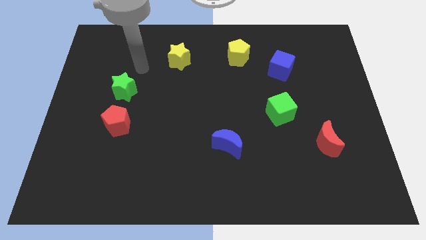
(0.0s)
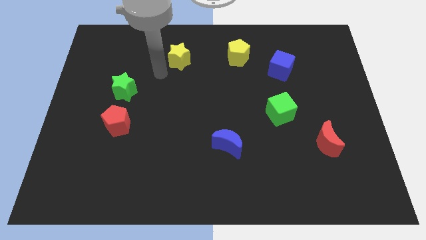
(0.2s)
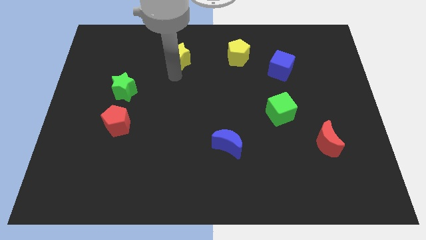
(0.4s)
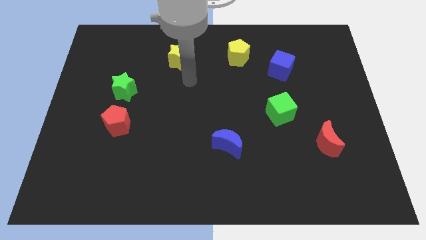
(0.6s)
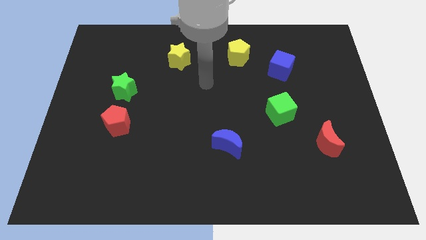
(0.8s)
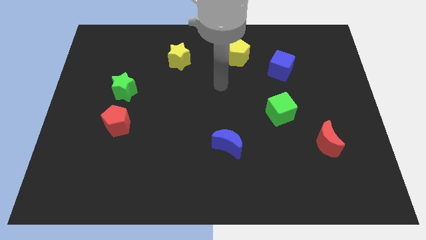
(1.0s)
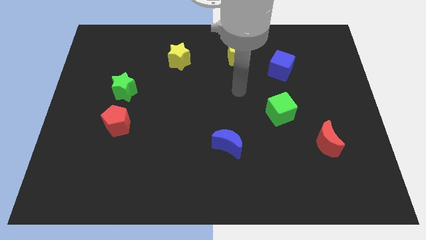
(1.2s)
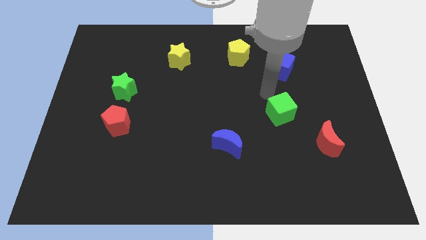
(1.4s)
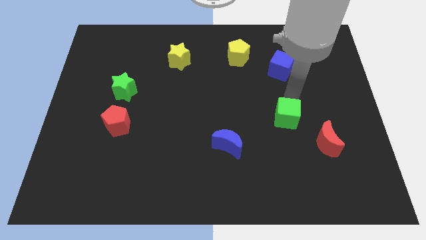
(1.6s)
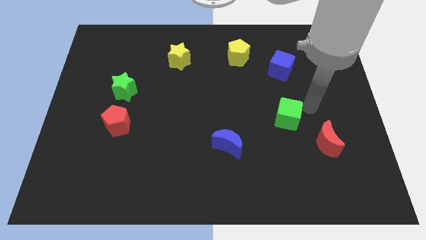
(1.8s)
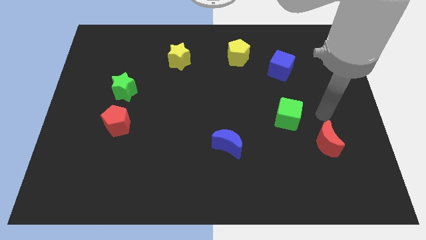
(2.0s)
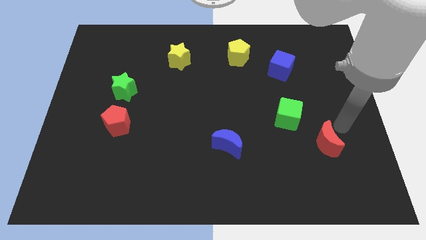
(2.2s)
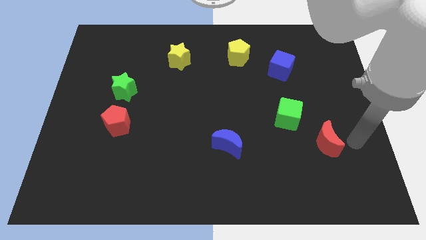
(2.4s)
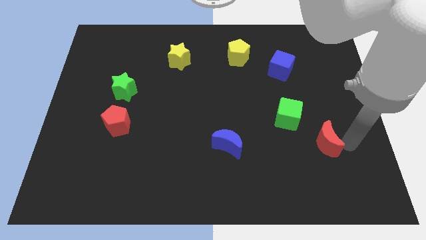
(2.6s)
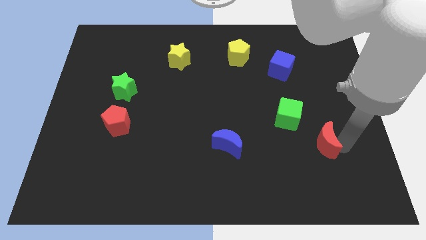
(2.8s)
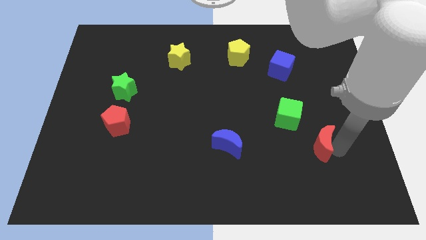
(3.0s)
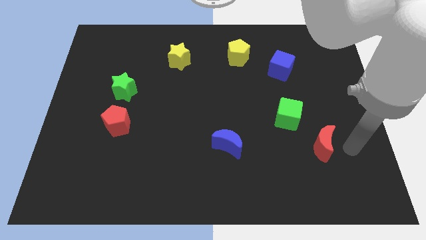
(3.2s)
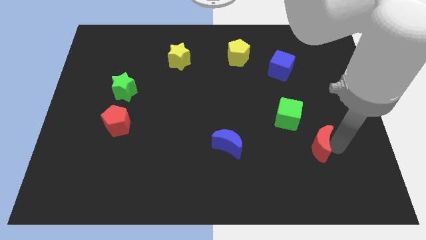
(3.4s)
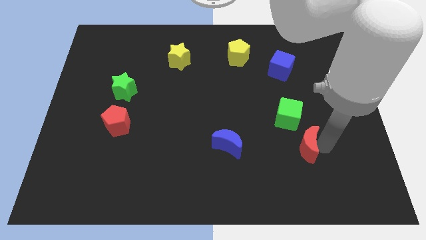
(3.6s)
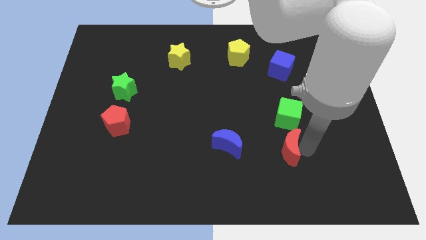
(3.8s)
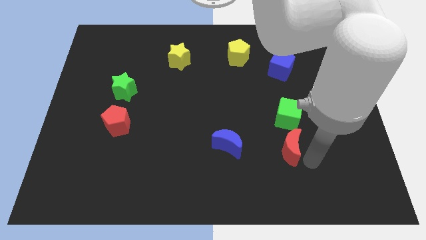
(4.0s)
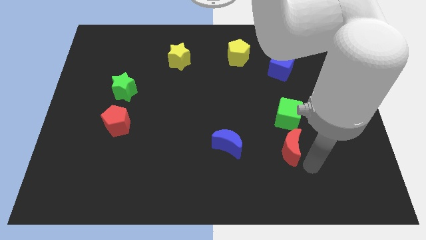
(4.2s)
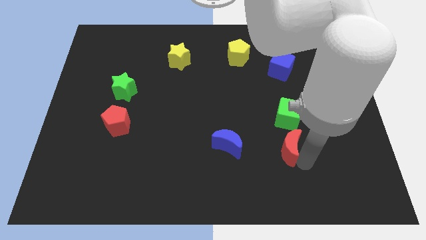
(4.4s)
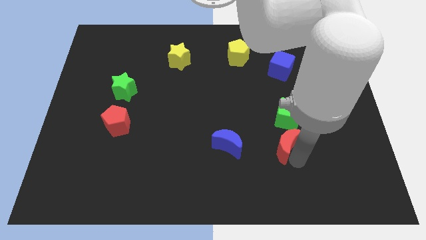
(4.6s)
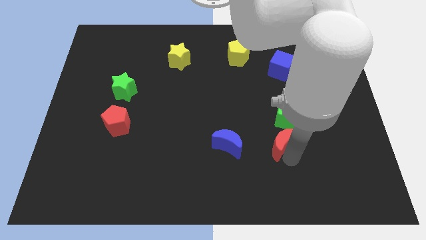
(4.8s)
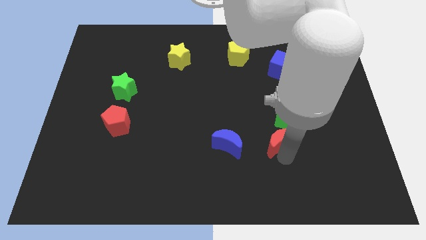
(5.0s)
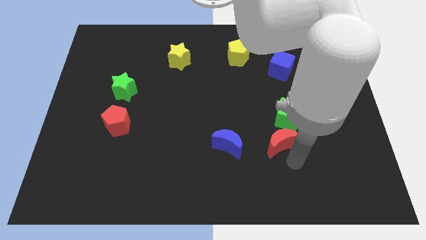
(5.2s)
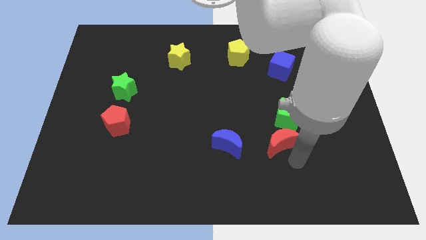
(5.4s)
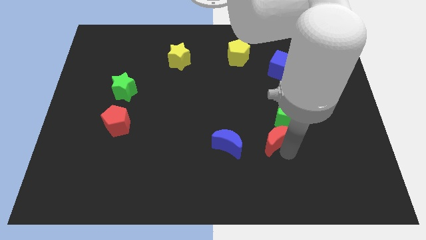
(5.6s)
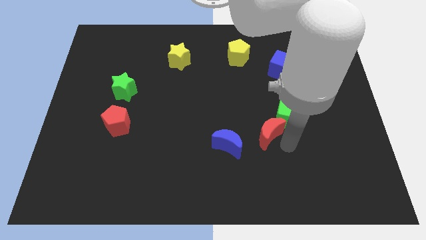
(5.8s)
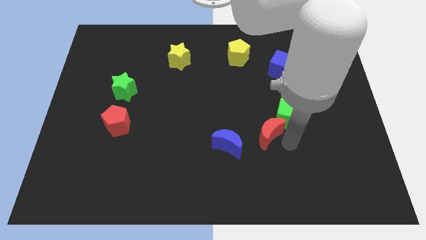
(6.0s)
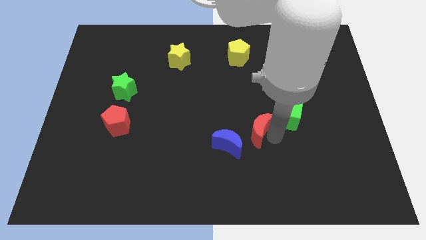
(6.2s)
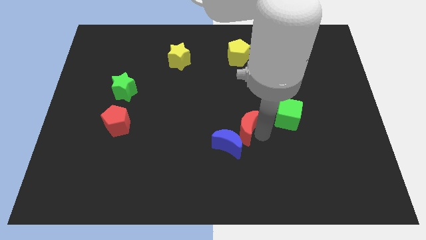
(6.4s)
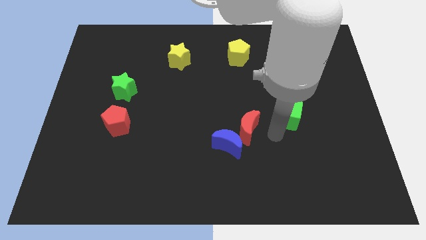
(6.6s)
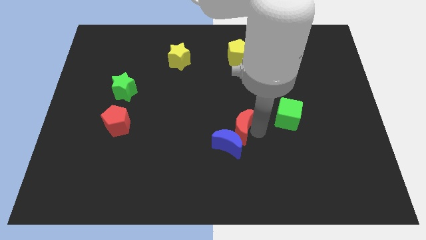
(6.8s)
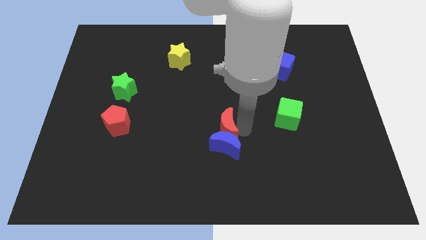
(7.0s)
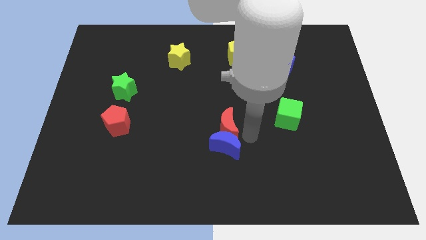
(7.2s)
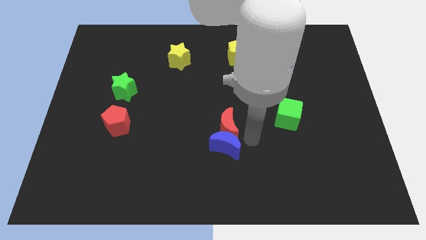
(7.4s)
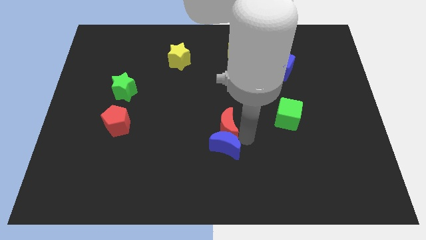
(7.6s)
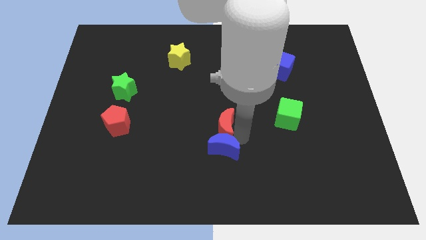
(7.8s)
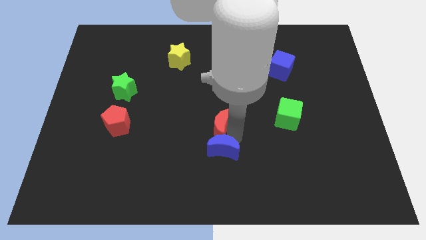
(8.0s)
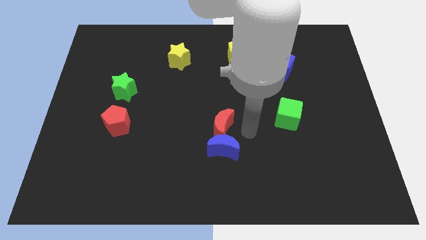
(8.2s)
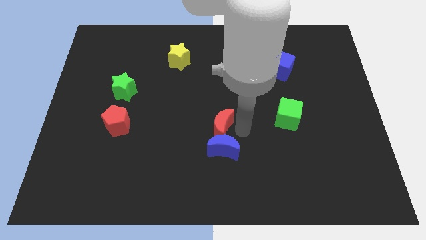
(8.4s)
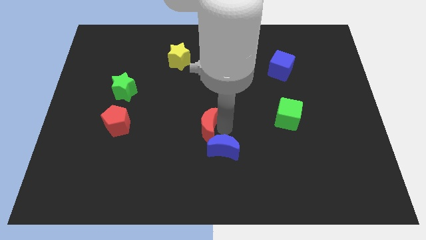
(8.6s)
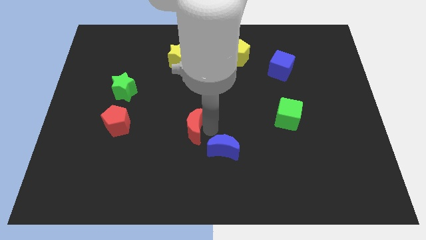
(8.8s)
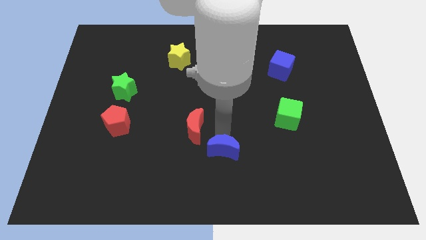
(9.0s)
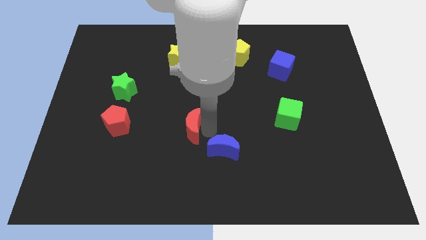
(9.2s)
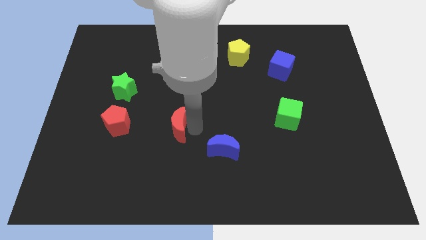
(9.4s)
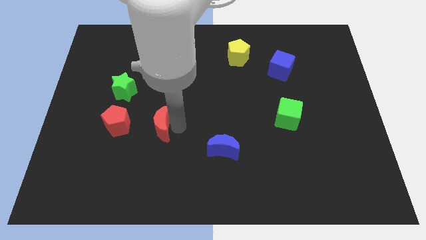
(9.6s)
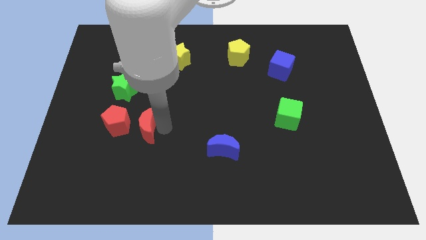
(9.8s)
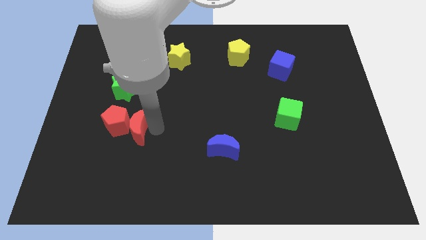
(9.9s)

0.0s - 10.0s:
put the red moon close to the red pentagon

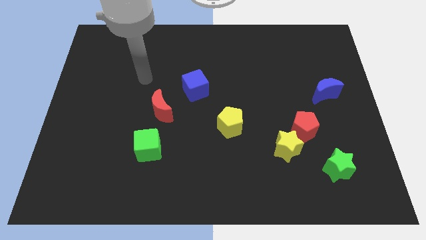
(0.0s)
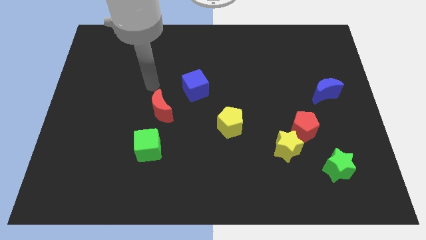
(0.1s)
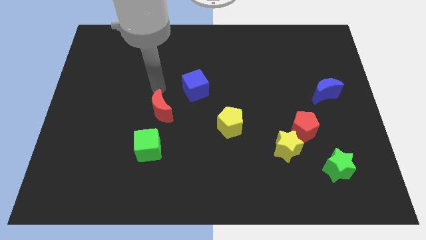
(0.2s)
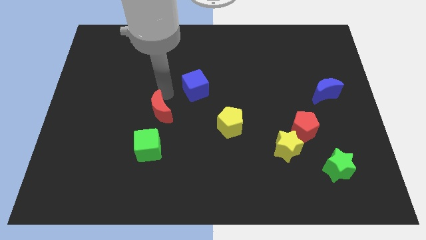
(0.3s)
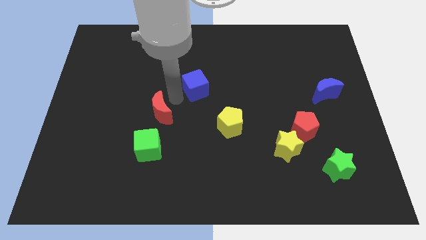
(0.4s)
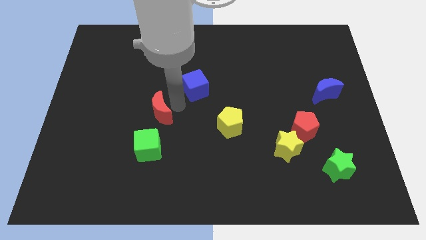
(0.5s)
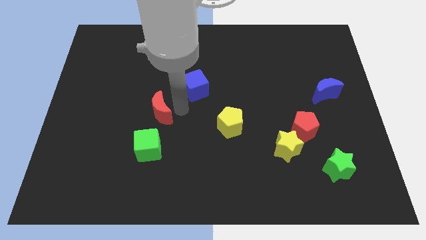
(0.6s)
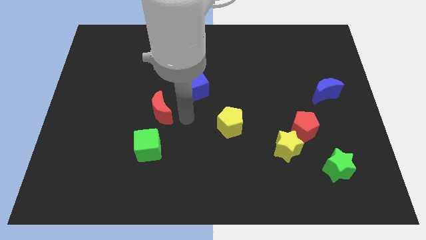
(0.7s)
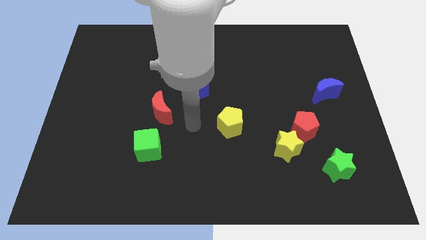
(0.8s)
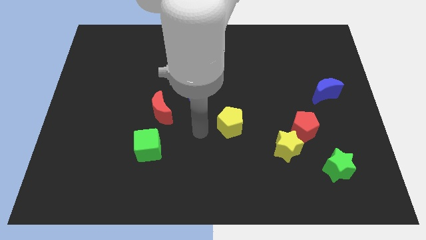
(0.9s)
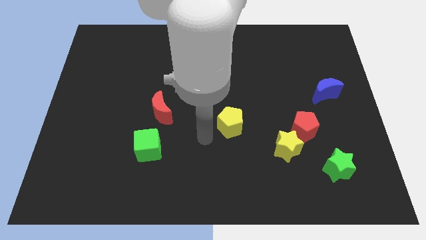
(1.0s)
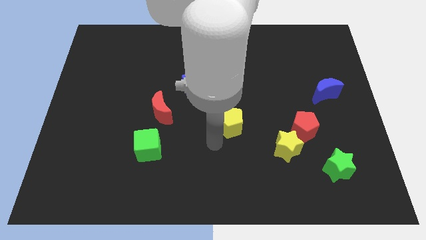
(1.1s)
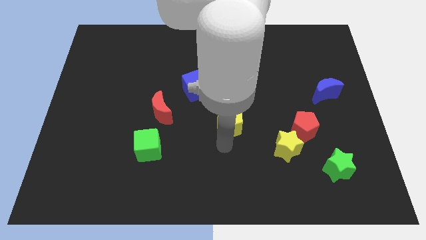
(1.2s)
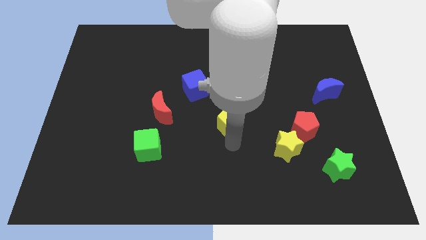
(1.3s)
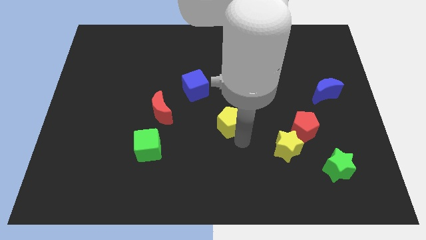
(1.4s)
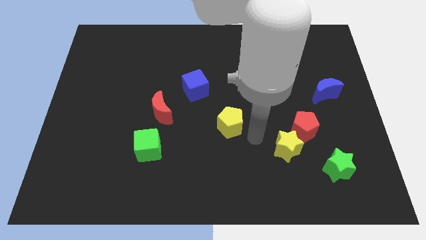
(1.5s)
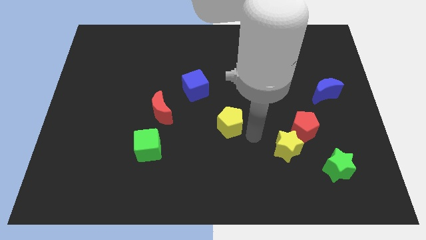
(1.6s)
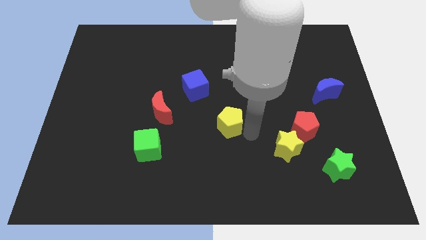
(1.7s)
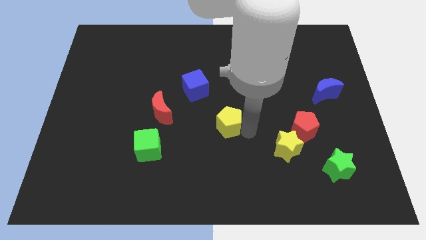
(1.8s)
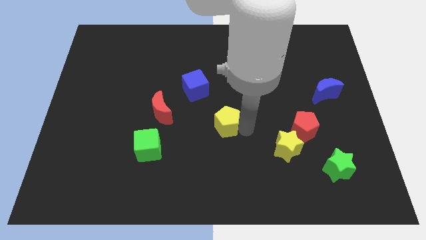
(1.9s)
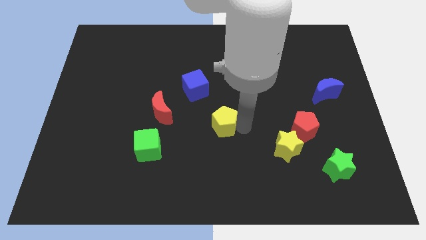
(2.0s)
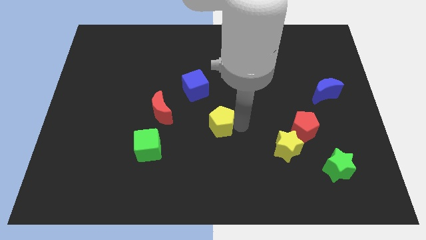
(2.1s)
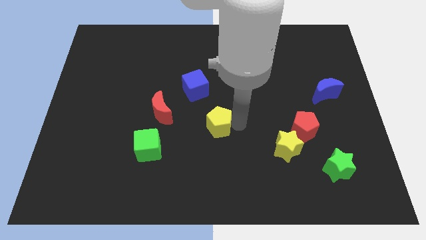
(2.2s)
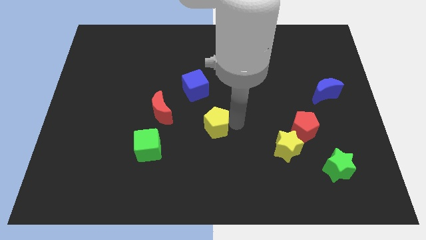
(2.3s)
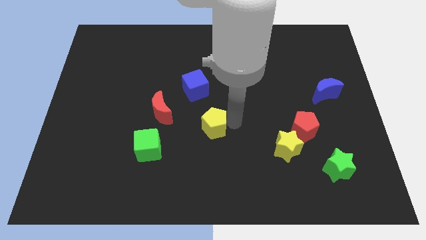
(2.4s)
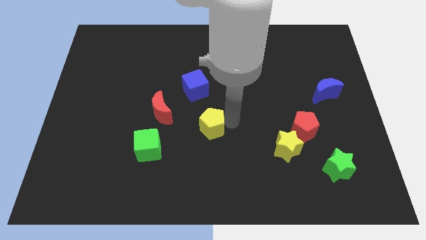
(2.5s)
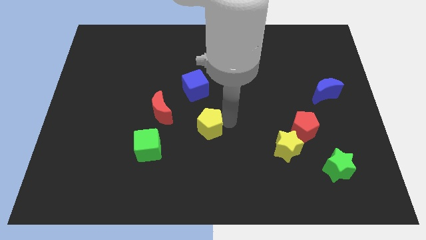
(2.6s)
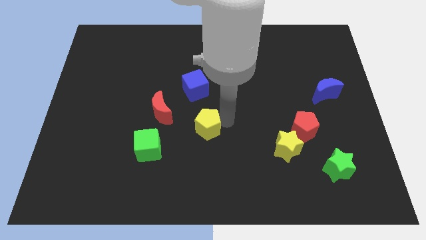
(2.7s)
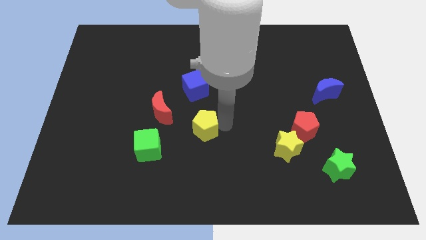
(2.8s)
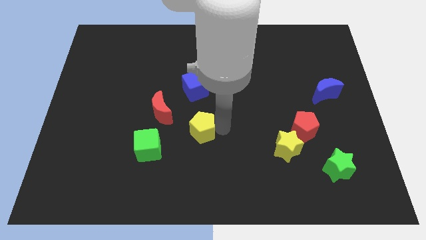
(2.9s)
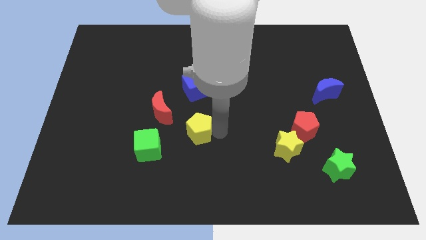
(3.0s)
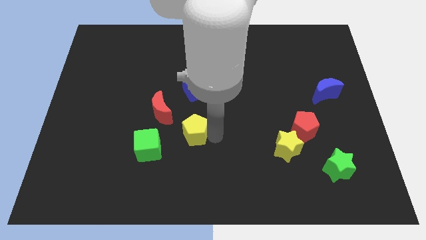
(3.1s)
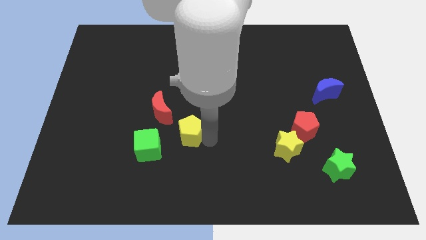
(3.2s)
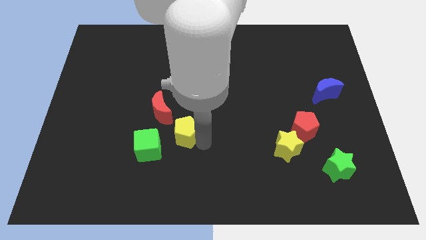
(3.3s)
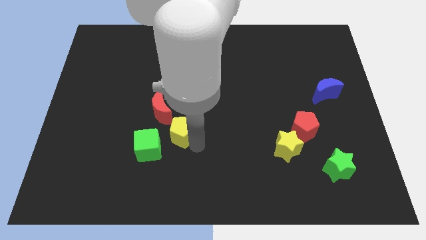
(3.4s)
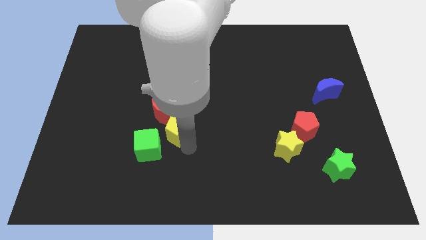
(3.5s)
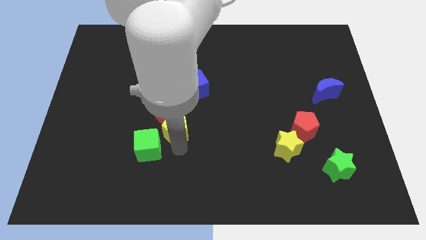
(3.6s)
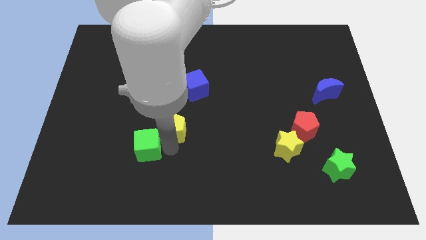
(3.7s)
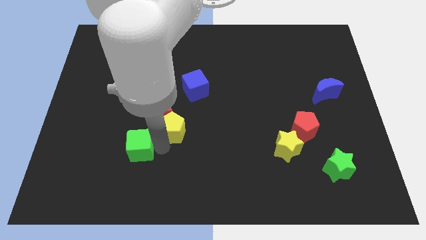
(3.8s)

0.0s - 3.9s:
move the yellow pentagon close to the red moon
